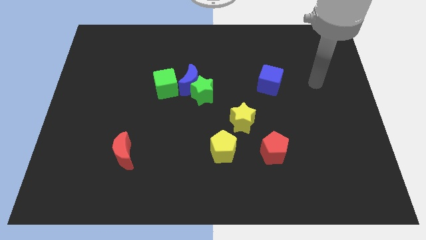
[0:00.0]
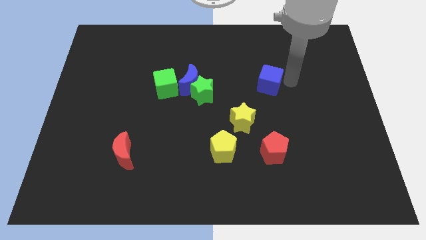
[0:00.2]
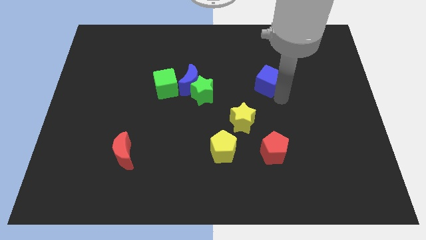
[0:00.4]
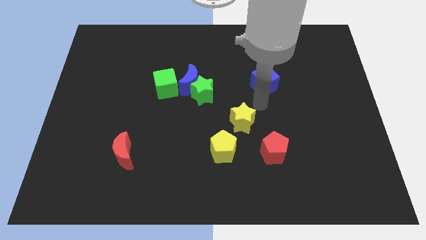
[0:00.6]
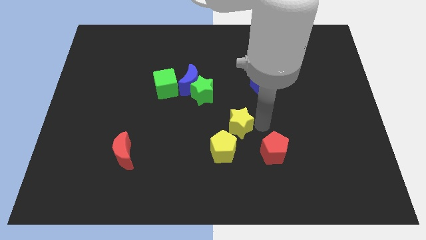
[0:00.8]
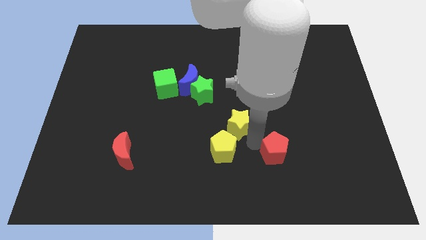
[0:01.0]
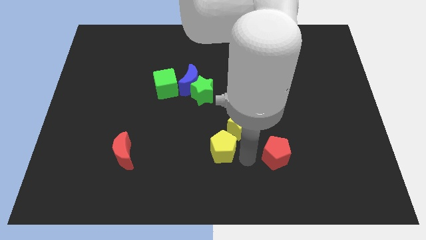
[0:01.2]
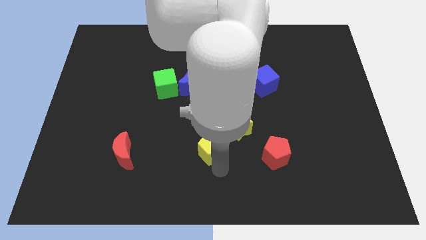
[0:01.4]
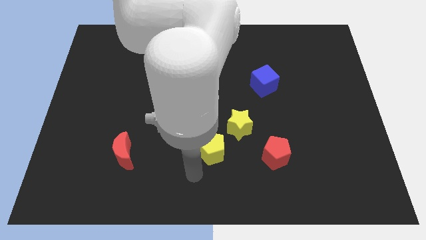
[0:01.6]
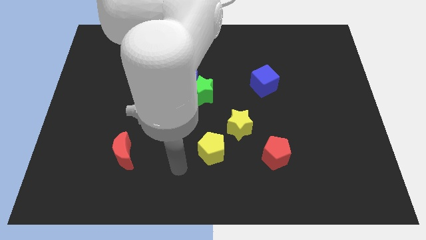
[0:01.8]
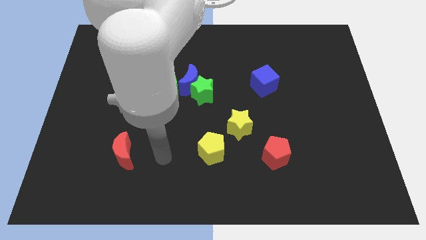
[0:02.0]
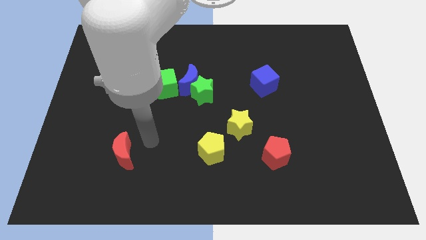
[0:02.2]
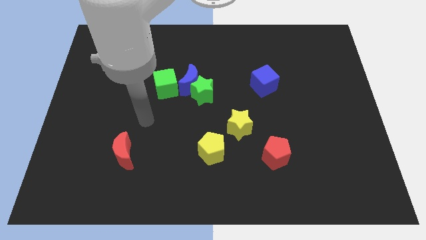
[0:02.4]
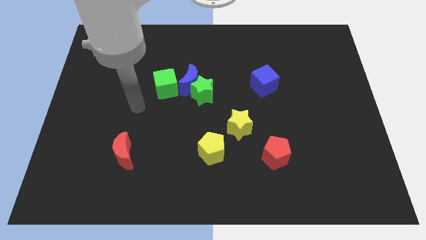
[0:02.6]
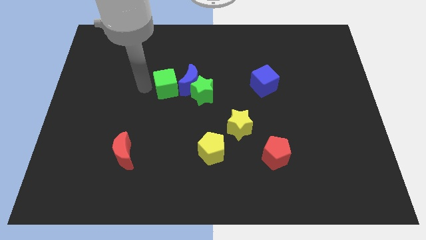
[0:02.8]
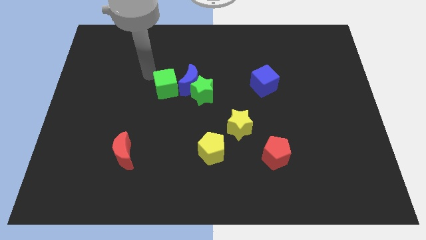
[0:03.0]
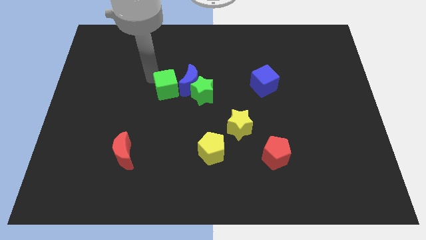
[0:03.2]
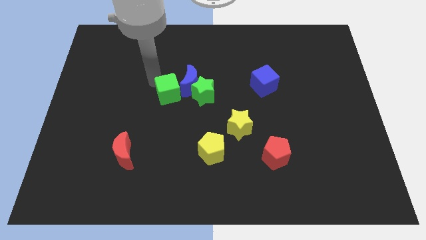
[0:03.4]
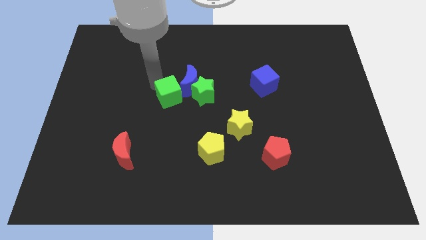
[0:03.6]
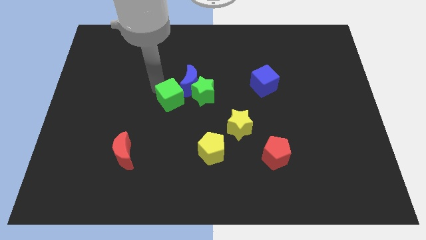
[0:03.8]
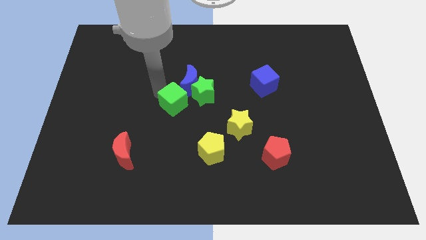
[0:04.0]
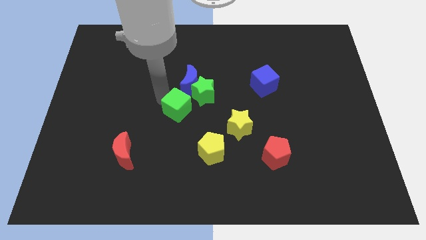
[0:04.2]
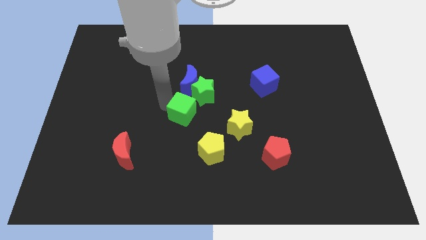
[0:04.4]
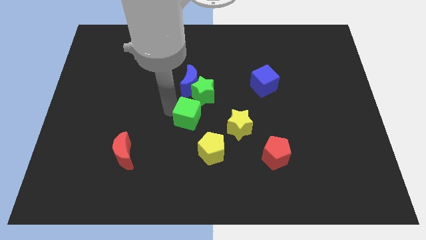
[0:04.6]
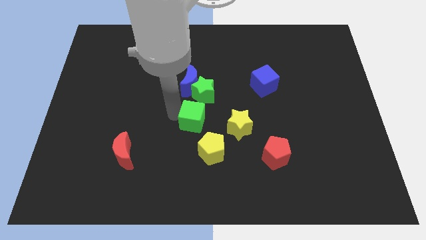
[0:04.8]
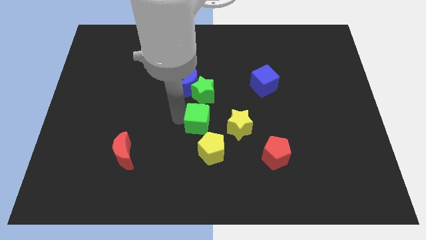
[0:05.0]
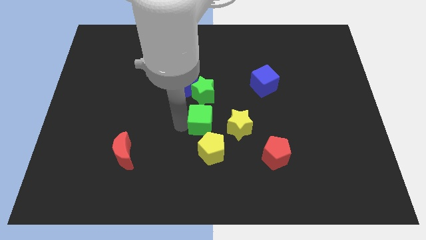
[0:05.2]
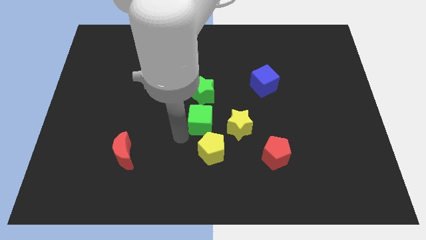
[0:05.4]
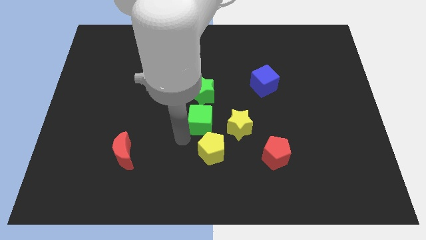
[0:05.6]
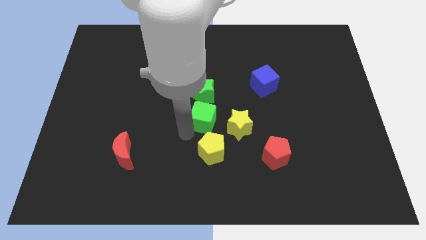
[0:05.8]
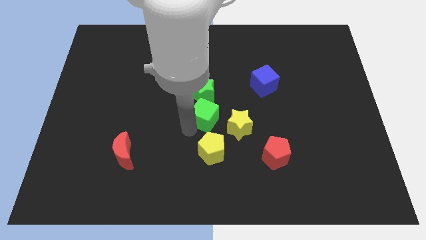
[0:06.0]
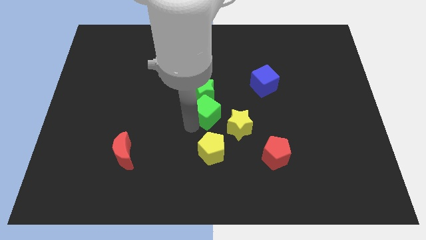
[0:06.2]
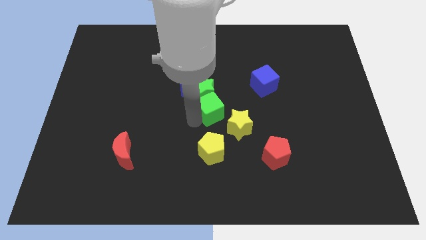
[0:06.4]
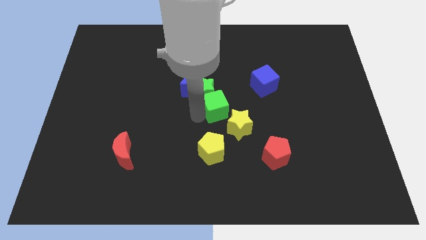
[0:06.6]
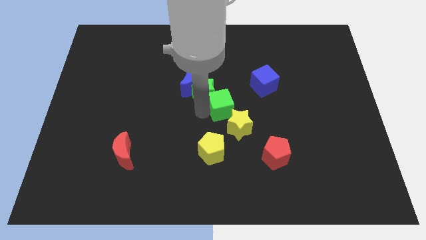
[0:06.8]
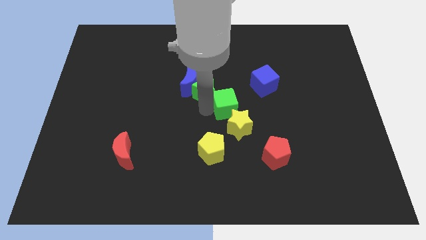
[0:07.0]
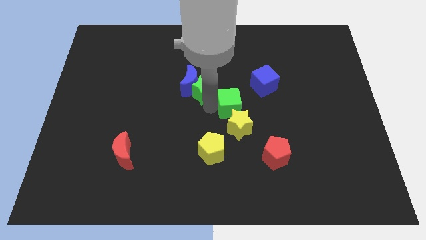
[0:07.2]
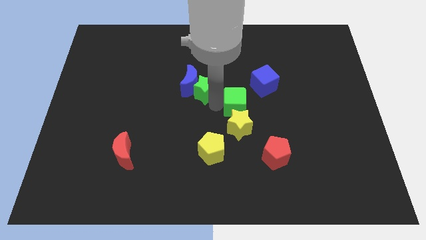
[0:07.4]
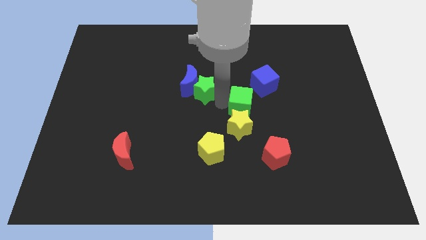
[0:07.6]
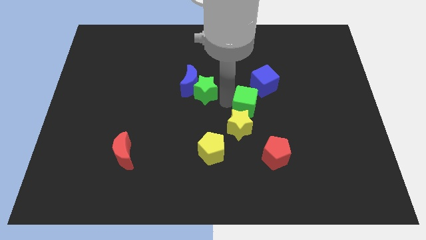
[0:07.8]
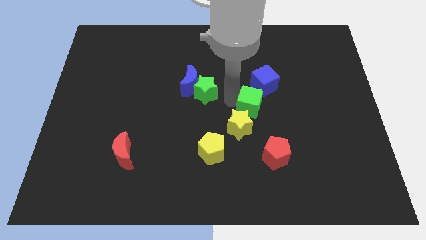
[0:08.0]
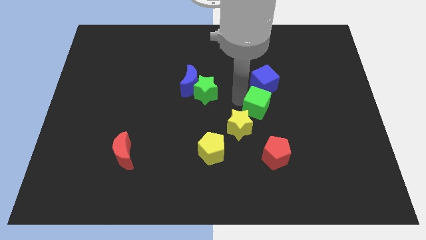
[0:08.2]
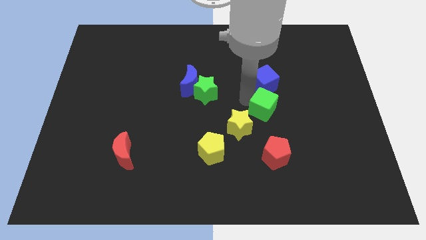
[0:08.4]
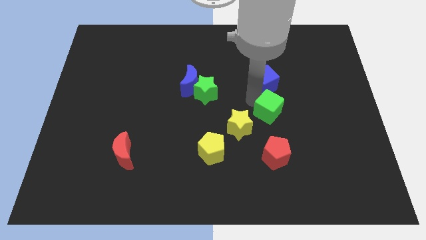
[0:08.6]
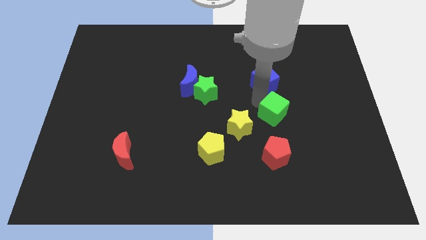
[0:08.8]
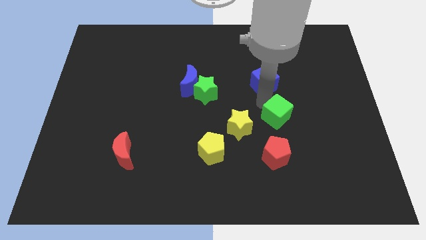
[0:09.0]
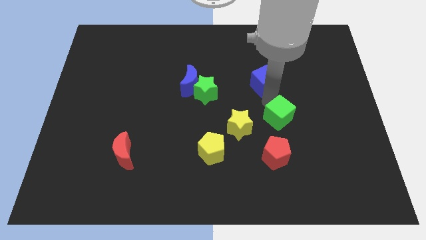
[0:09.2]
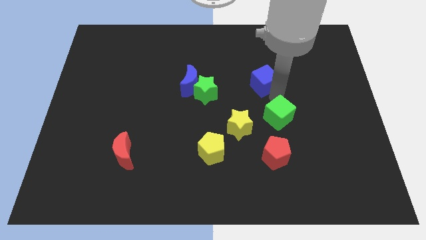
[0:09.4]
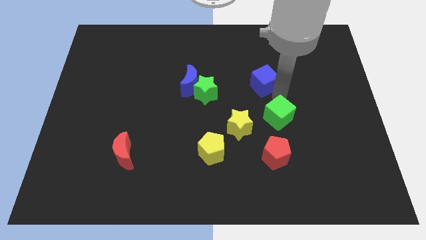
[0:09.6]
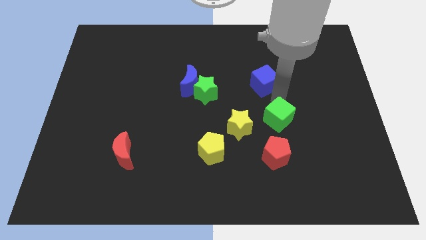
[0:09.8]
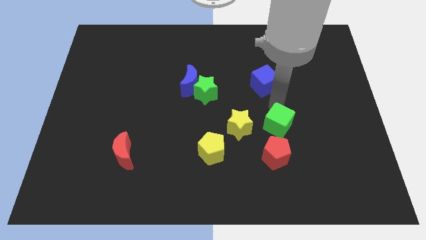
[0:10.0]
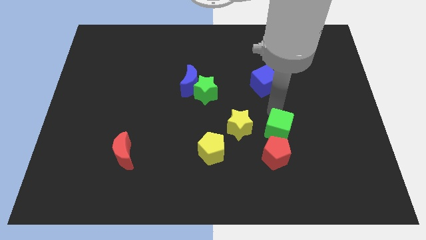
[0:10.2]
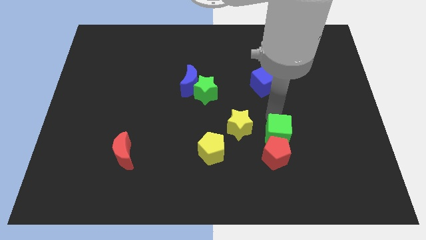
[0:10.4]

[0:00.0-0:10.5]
push the green cube towards the red pentagon

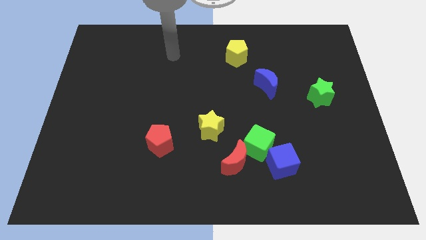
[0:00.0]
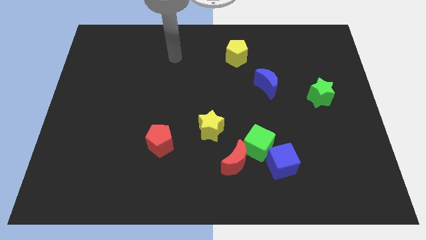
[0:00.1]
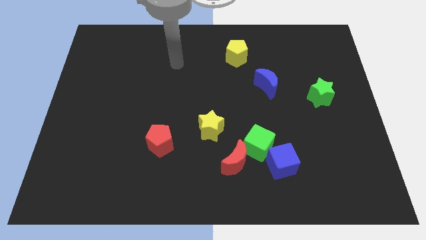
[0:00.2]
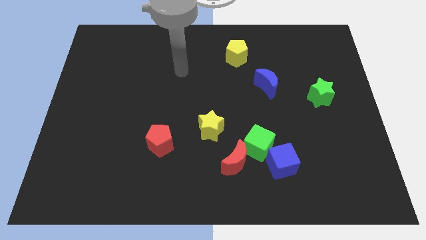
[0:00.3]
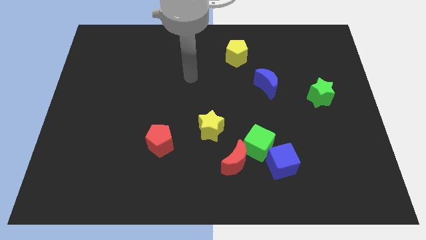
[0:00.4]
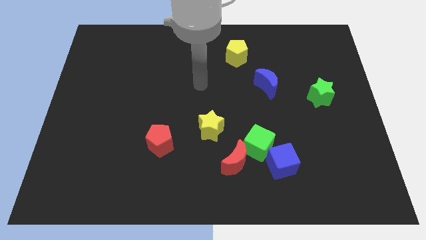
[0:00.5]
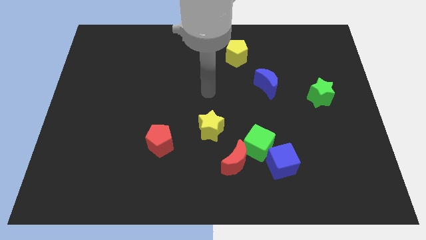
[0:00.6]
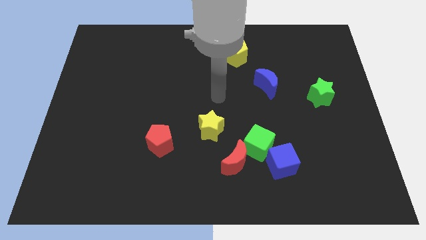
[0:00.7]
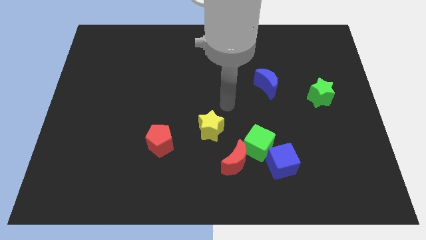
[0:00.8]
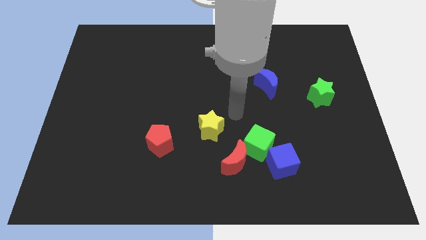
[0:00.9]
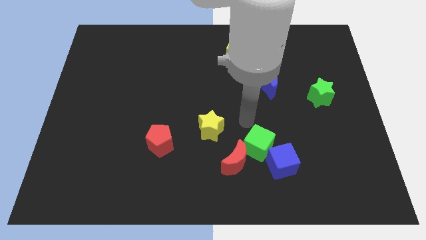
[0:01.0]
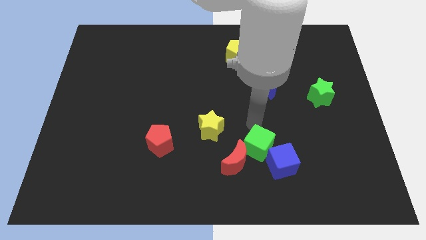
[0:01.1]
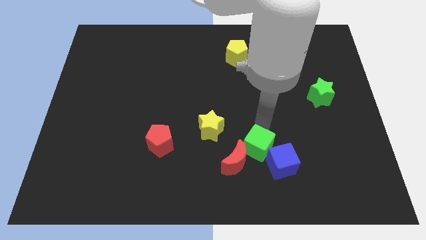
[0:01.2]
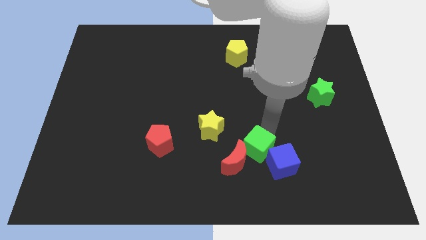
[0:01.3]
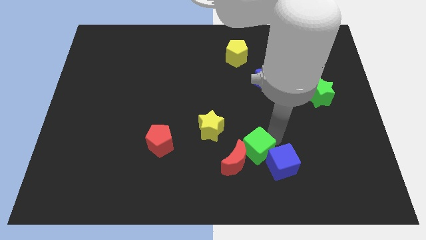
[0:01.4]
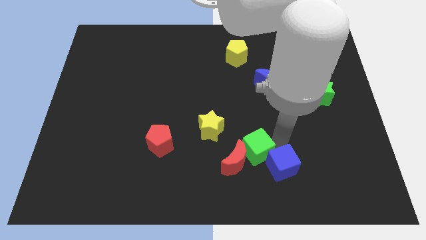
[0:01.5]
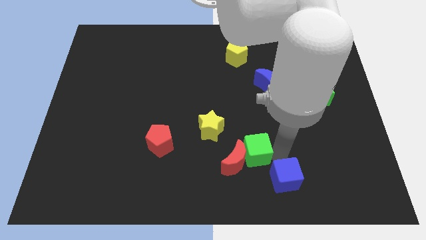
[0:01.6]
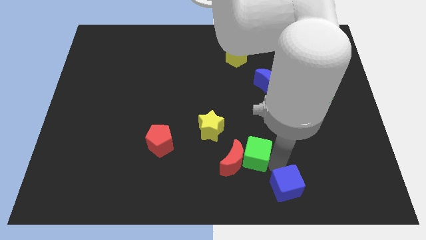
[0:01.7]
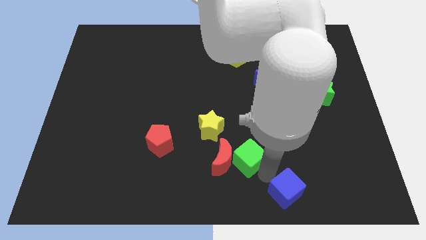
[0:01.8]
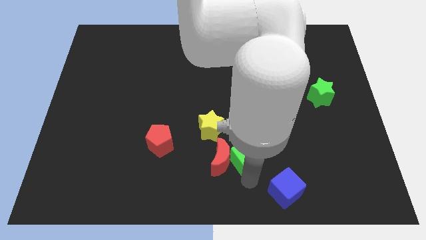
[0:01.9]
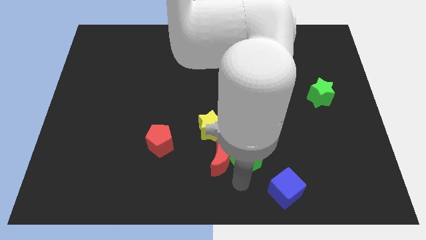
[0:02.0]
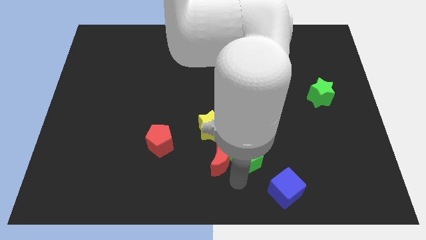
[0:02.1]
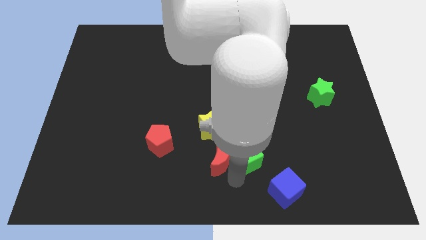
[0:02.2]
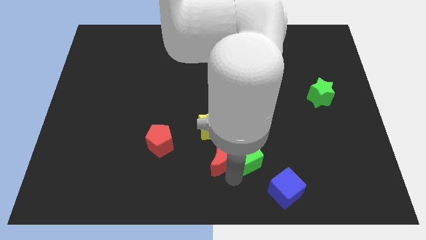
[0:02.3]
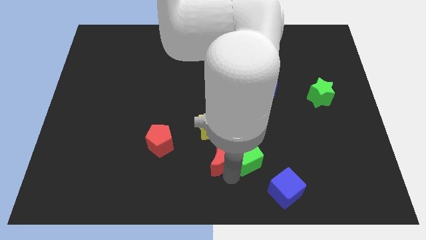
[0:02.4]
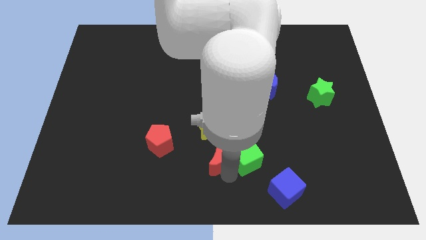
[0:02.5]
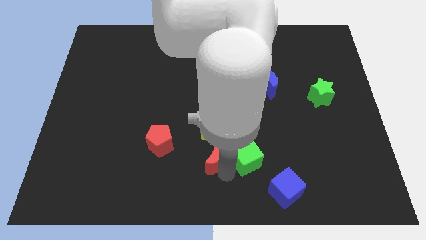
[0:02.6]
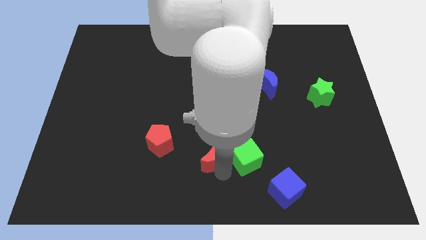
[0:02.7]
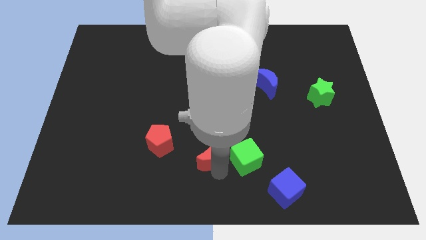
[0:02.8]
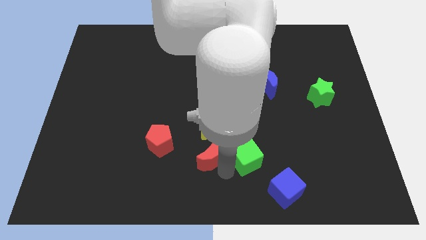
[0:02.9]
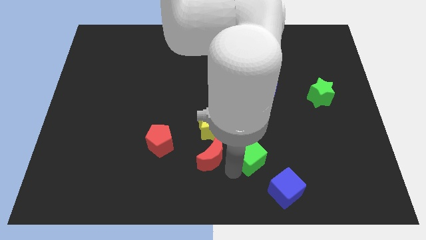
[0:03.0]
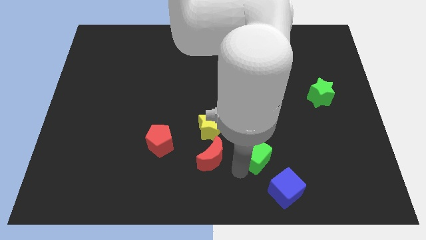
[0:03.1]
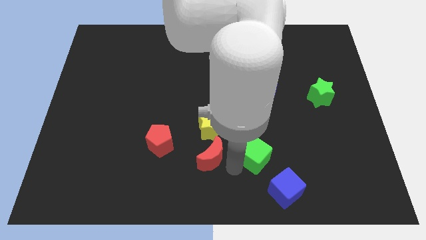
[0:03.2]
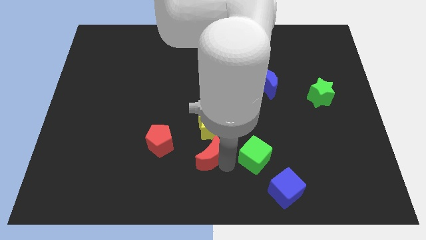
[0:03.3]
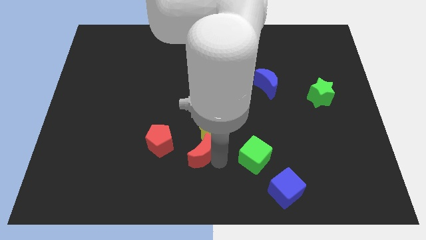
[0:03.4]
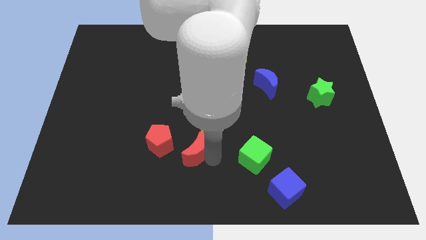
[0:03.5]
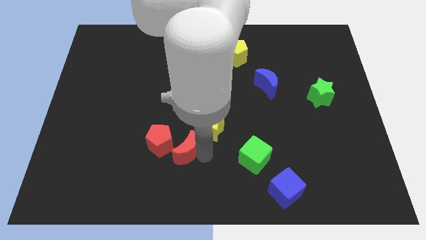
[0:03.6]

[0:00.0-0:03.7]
slide the red moon towards the red pentagon
